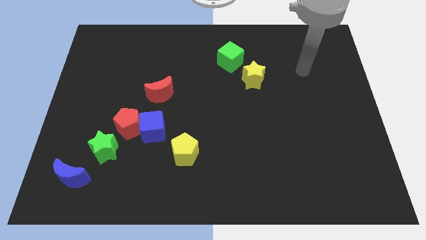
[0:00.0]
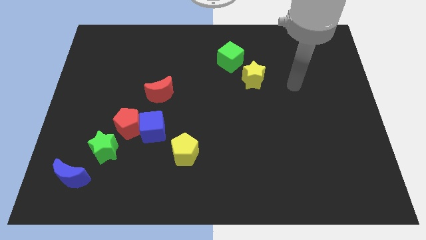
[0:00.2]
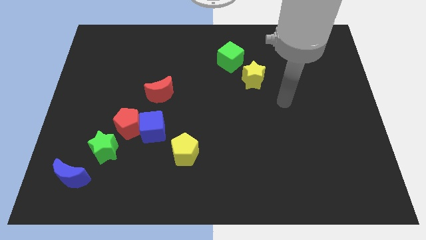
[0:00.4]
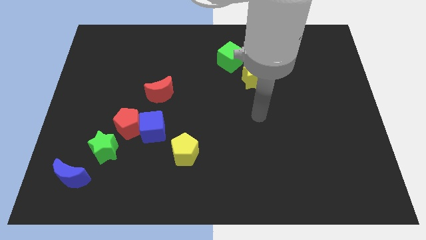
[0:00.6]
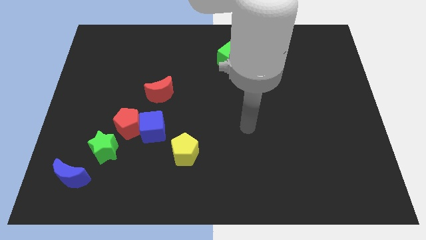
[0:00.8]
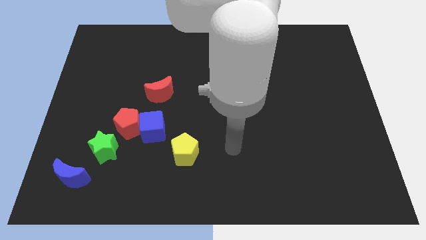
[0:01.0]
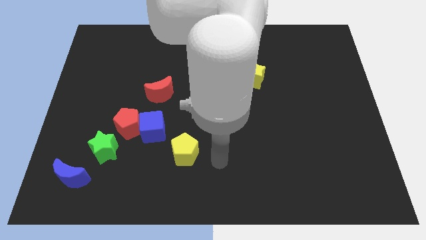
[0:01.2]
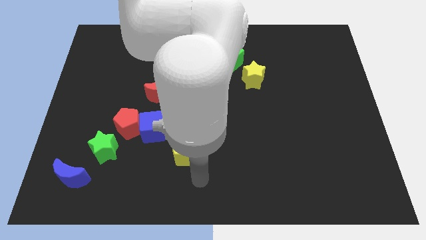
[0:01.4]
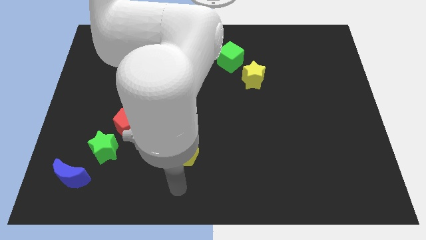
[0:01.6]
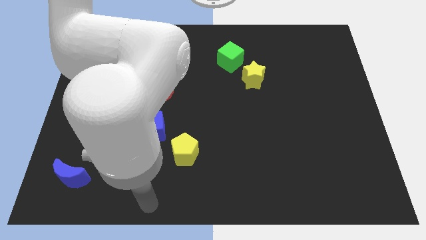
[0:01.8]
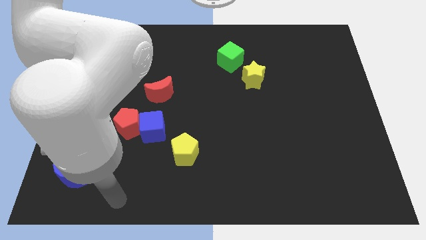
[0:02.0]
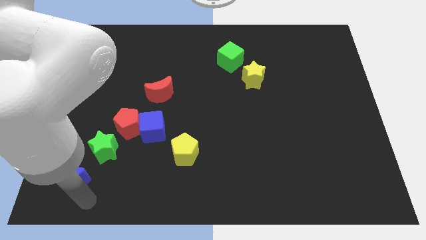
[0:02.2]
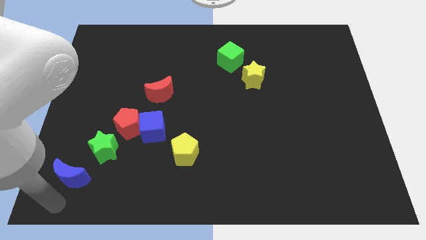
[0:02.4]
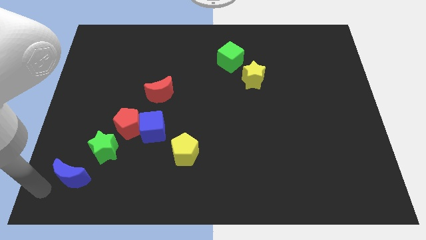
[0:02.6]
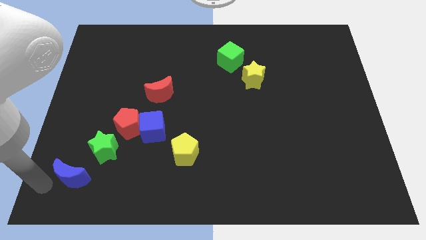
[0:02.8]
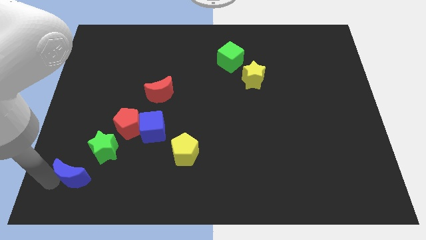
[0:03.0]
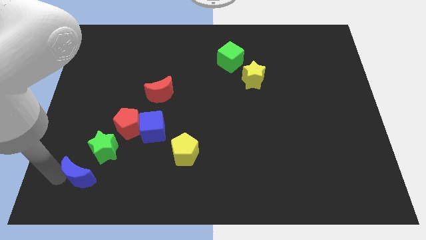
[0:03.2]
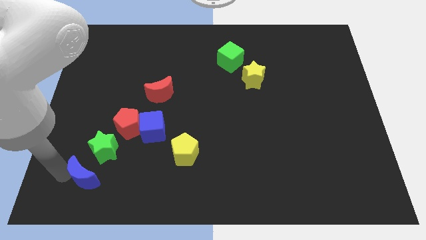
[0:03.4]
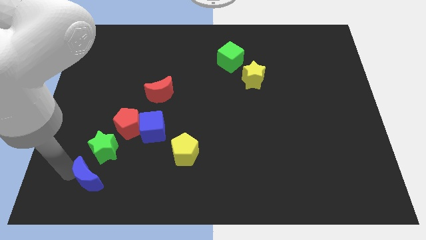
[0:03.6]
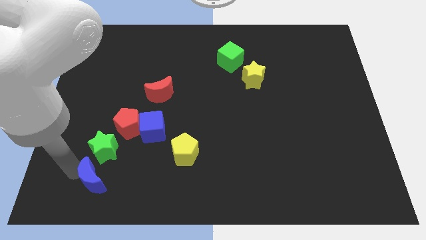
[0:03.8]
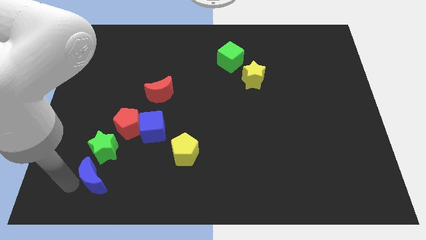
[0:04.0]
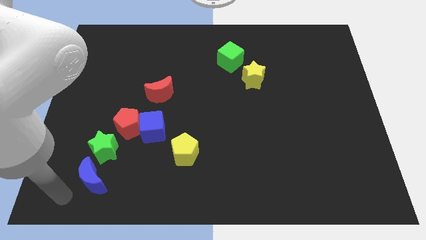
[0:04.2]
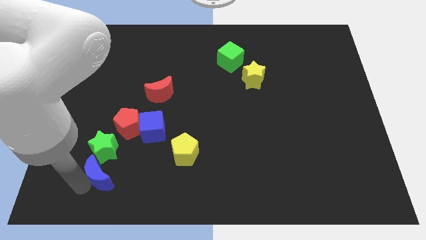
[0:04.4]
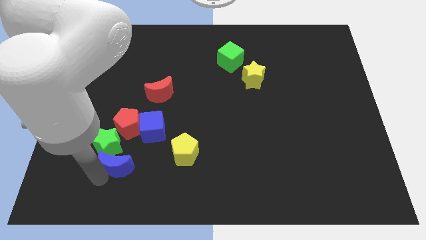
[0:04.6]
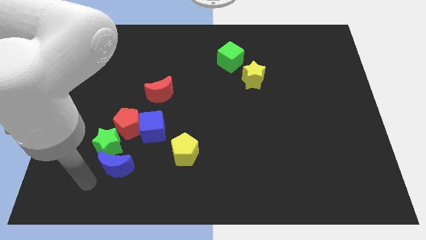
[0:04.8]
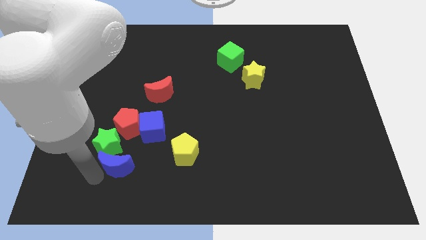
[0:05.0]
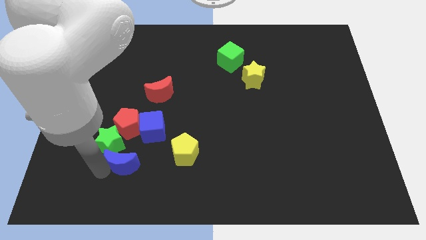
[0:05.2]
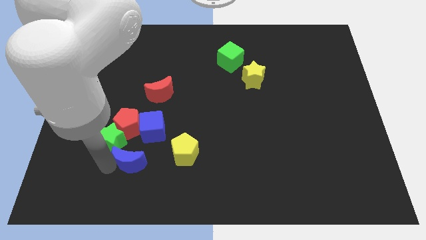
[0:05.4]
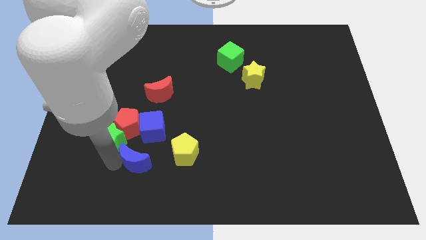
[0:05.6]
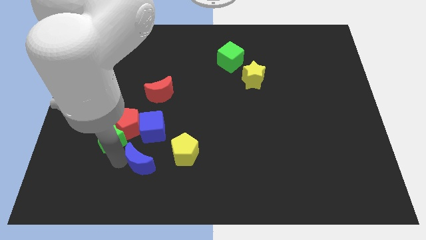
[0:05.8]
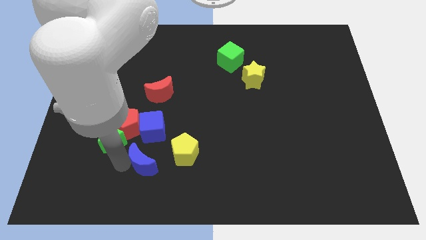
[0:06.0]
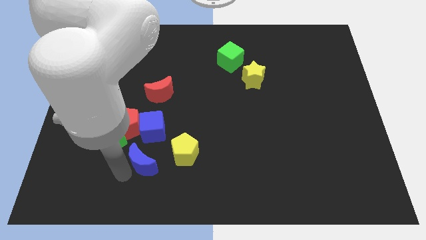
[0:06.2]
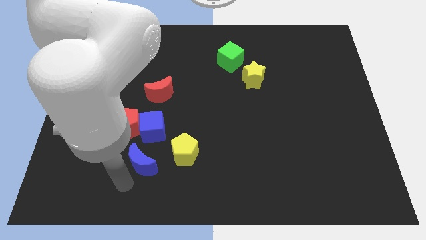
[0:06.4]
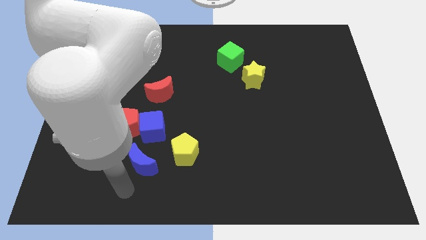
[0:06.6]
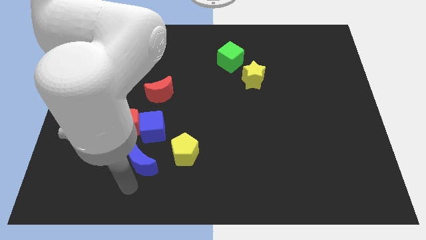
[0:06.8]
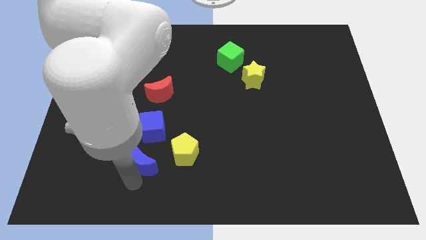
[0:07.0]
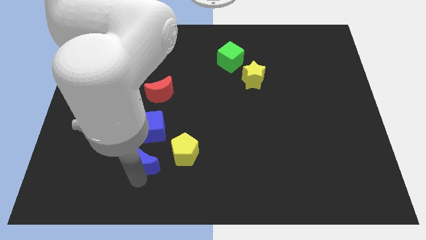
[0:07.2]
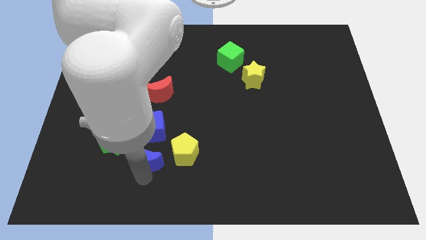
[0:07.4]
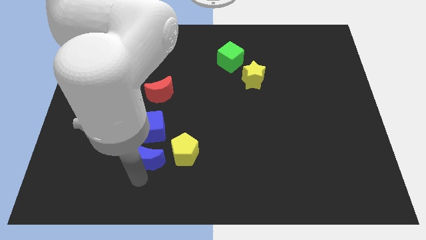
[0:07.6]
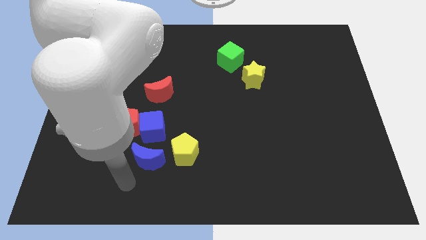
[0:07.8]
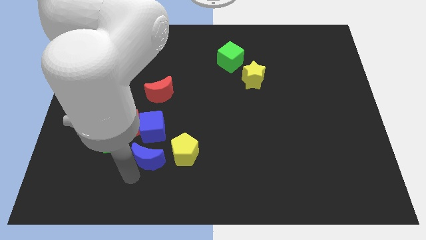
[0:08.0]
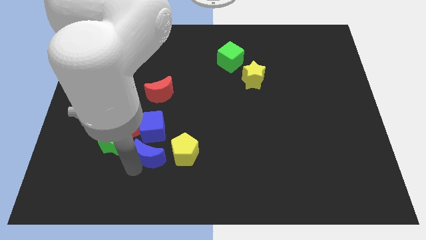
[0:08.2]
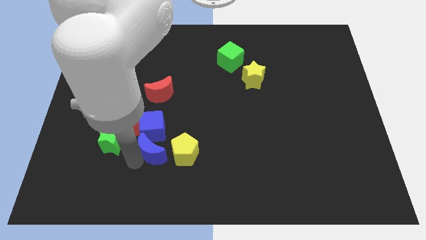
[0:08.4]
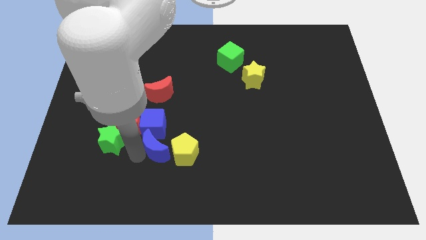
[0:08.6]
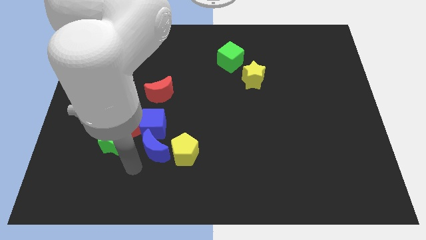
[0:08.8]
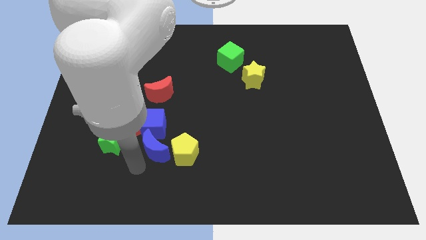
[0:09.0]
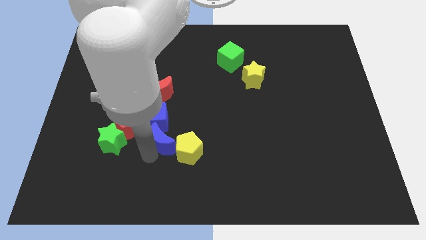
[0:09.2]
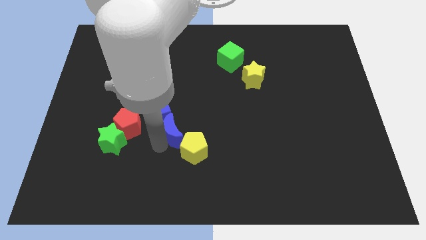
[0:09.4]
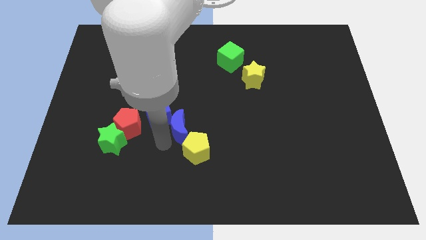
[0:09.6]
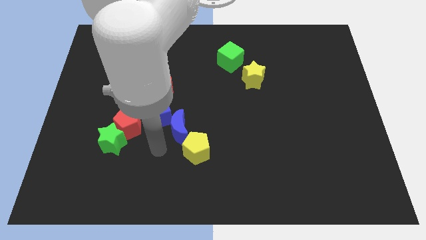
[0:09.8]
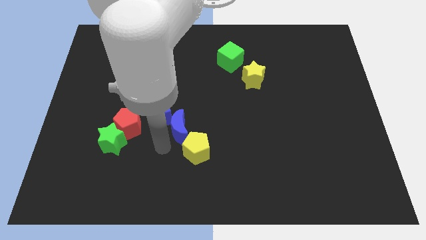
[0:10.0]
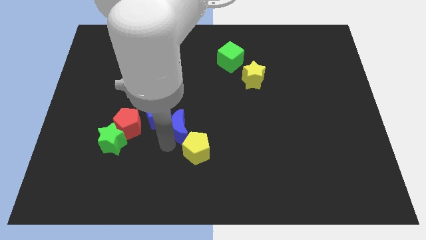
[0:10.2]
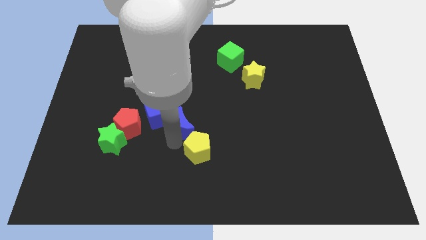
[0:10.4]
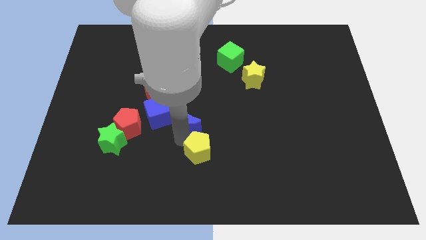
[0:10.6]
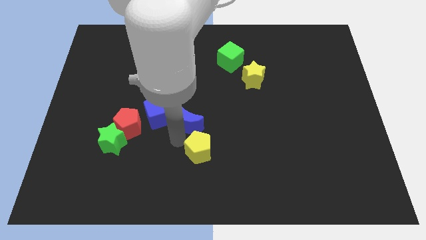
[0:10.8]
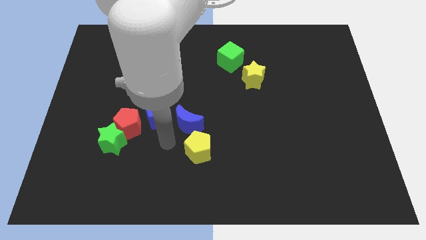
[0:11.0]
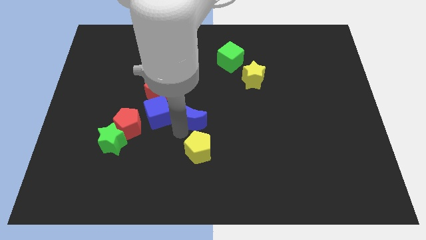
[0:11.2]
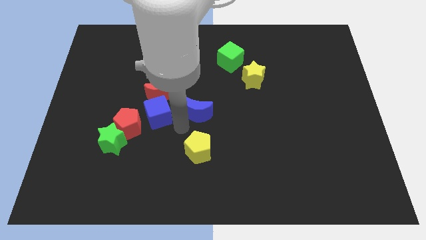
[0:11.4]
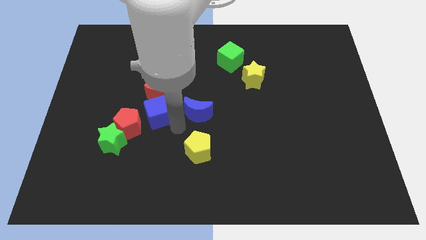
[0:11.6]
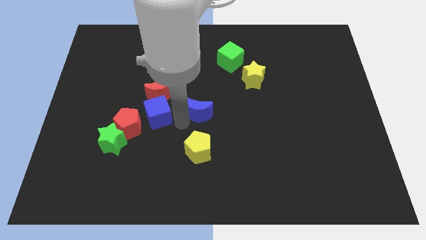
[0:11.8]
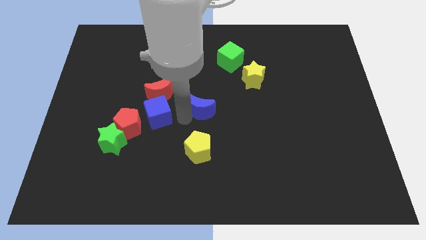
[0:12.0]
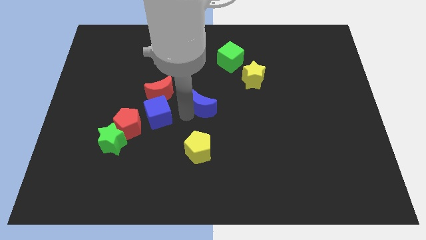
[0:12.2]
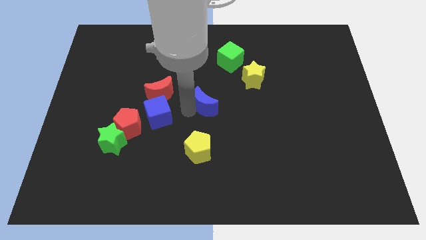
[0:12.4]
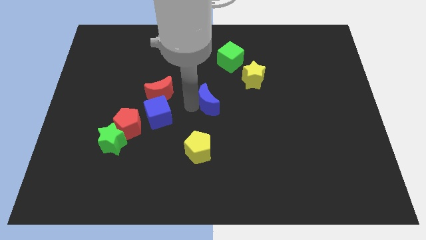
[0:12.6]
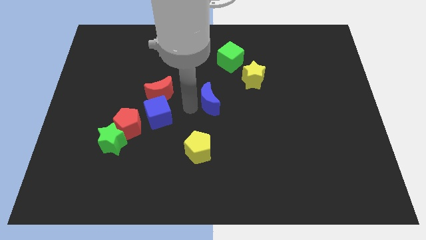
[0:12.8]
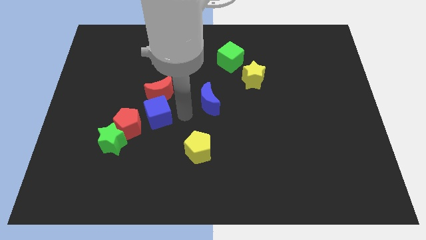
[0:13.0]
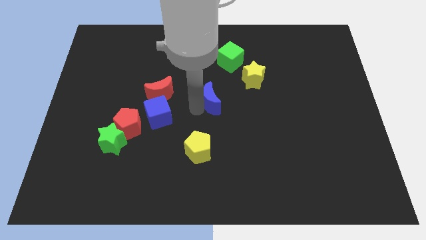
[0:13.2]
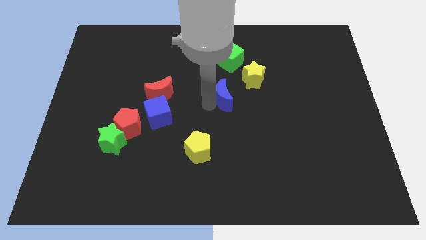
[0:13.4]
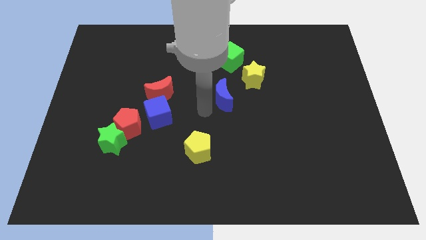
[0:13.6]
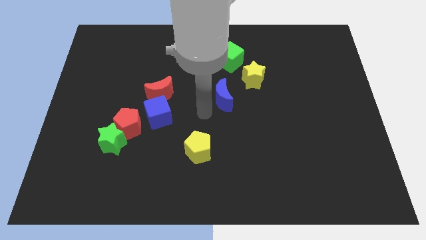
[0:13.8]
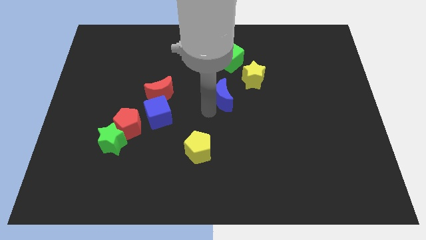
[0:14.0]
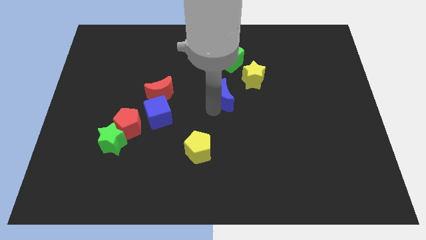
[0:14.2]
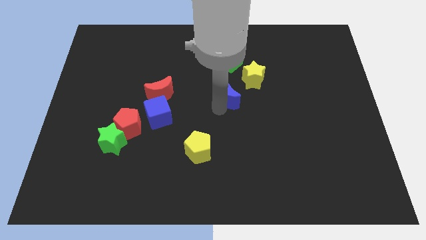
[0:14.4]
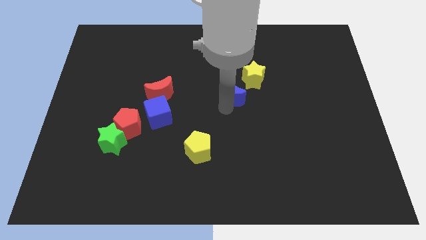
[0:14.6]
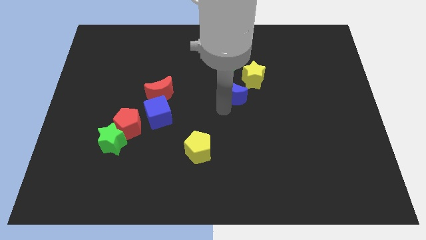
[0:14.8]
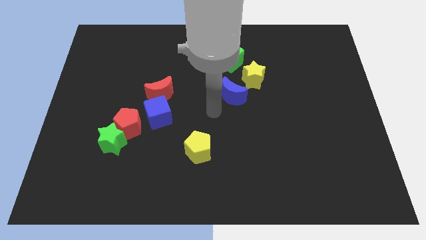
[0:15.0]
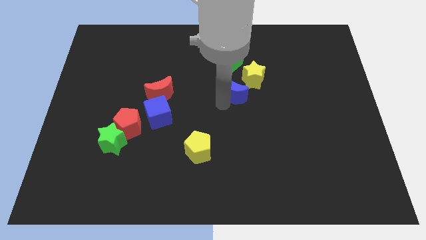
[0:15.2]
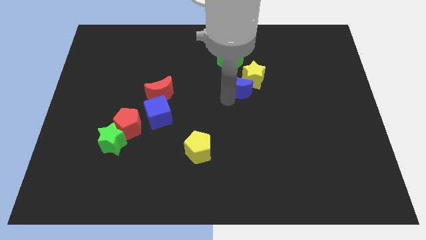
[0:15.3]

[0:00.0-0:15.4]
move the blue moon towards the yellow star
